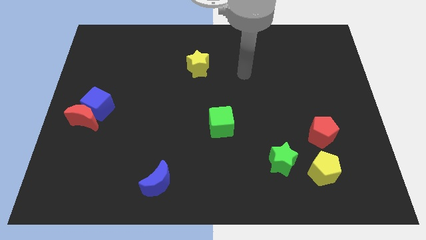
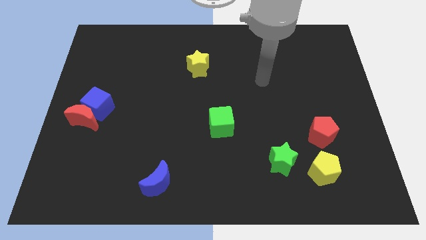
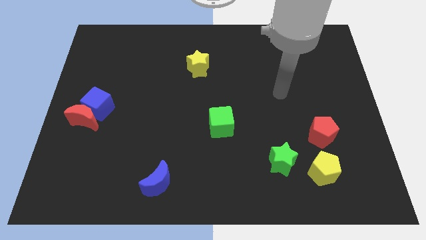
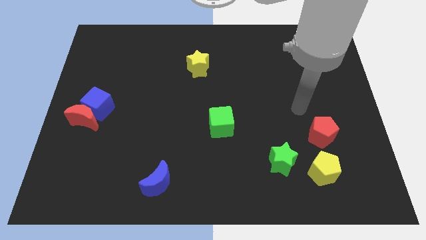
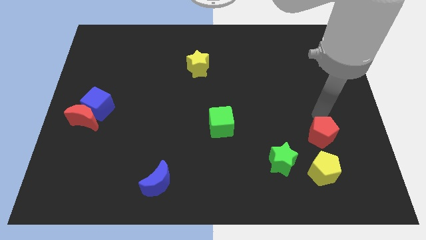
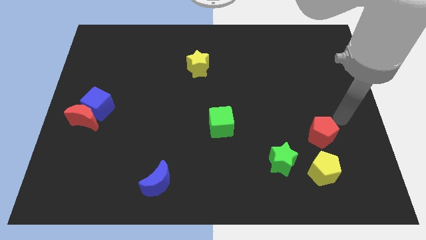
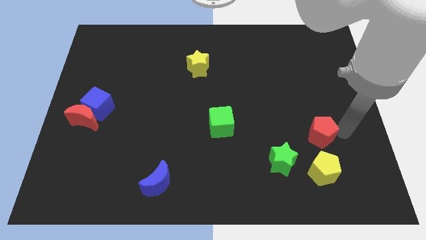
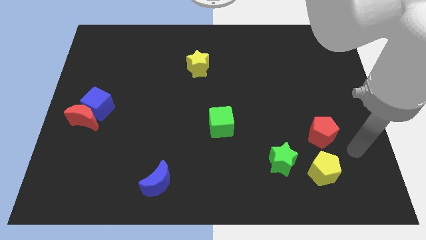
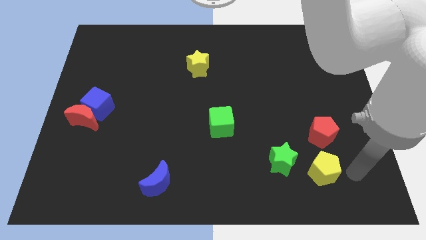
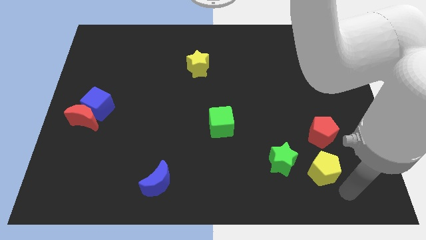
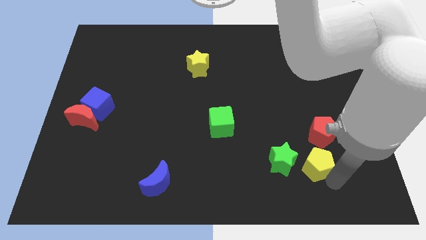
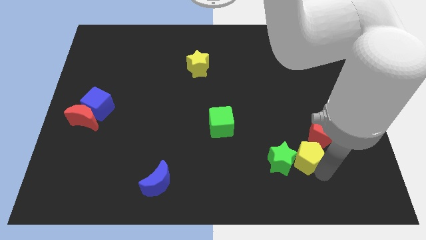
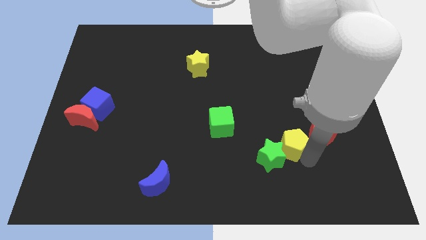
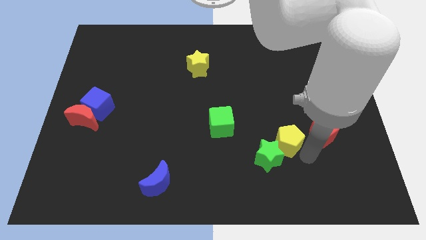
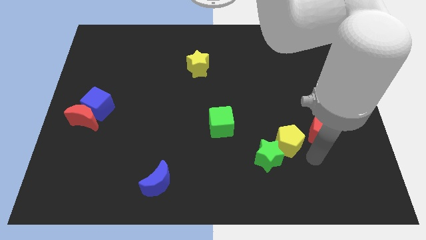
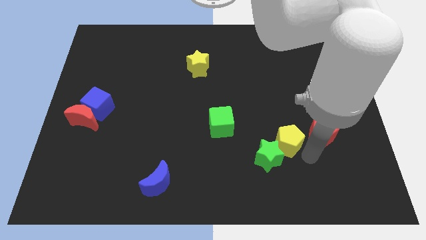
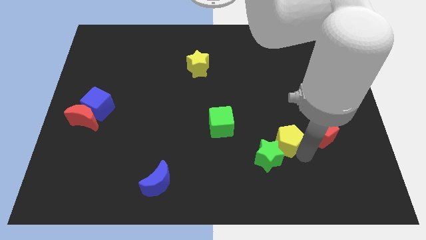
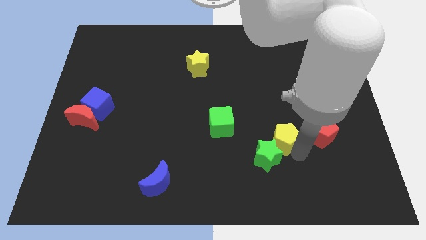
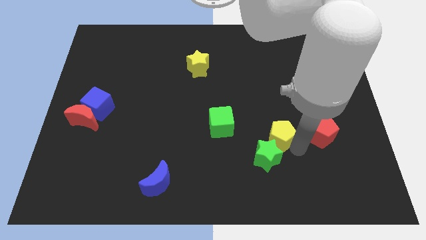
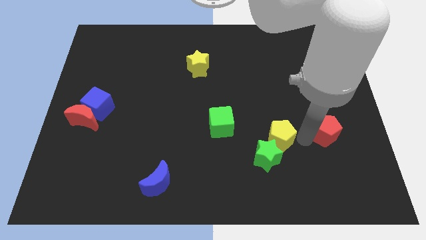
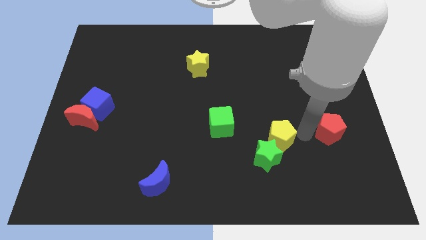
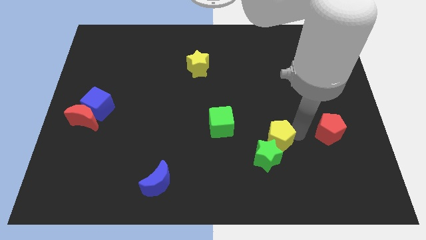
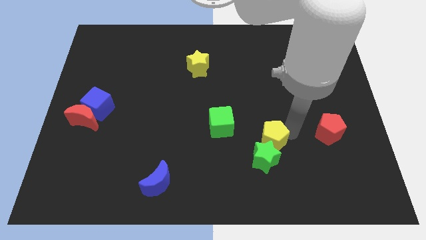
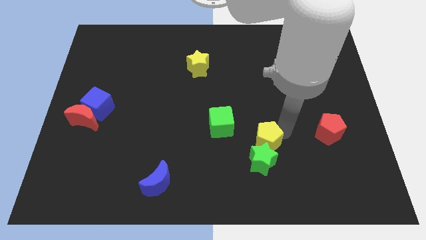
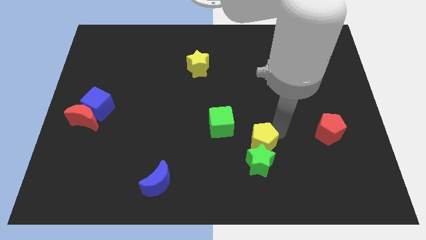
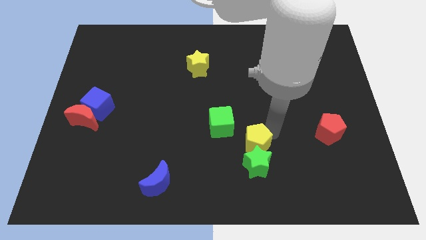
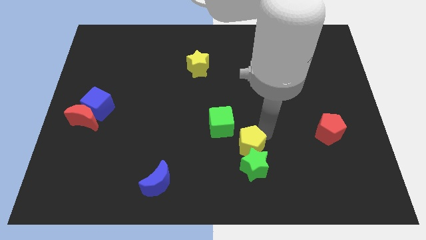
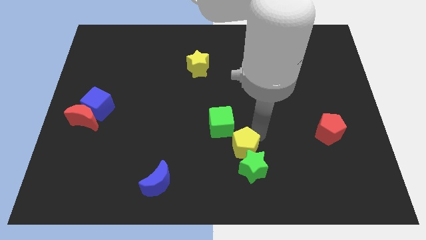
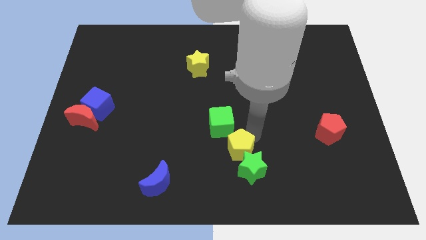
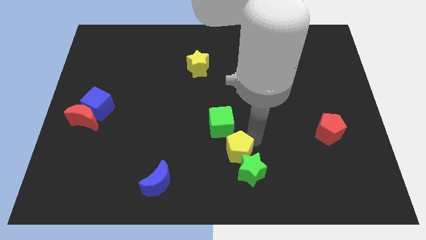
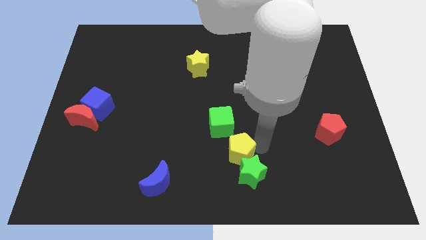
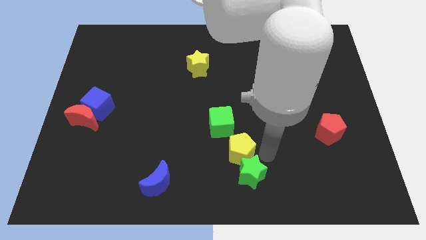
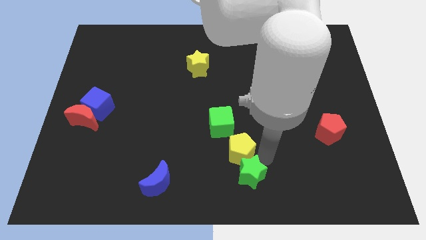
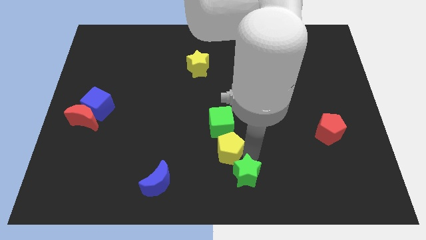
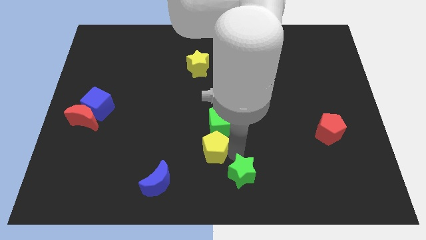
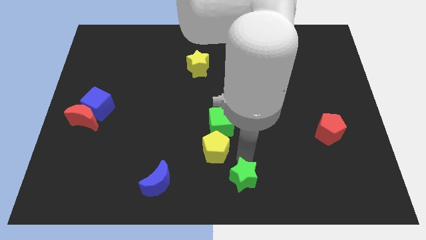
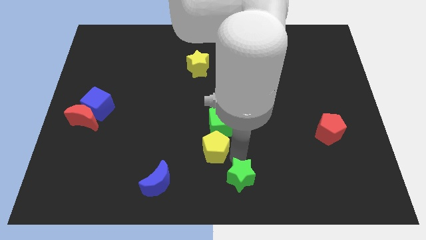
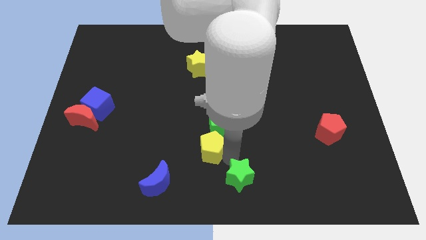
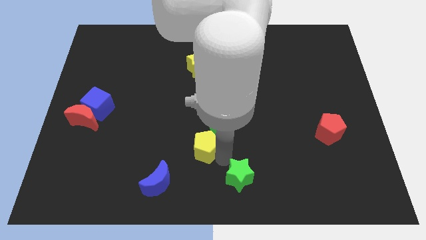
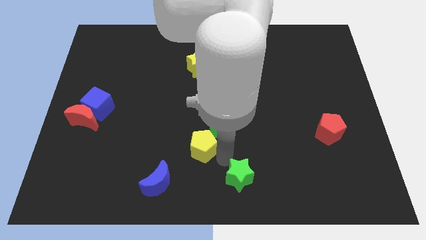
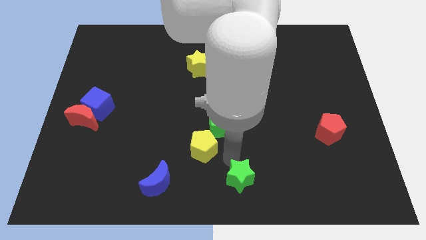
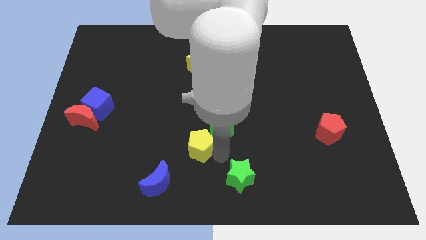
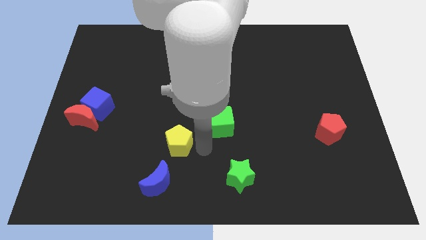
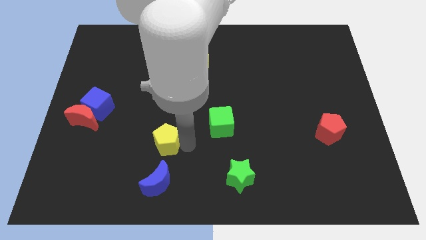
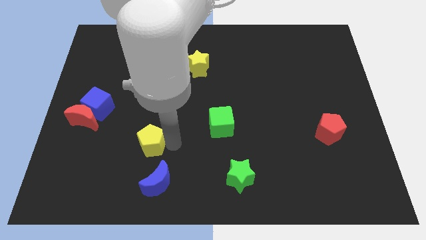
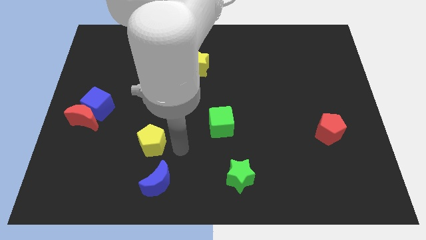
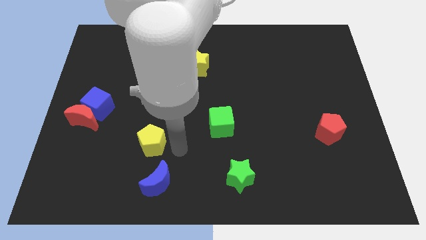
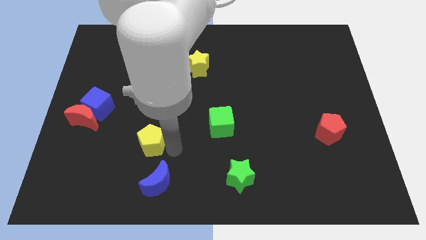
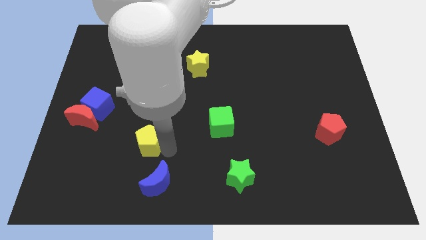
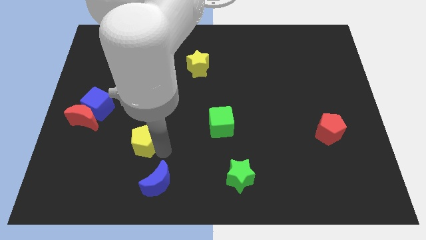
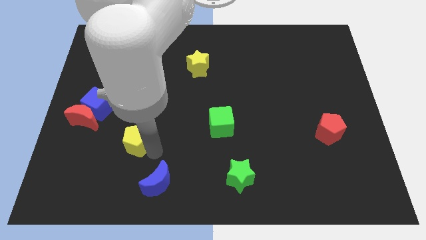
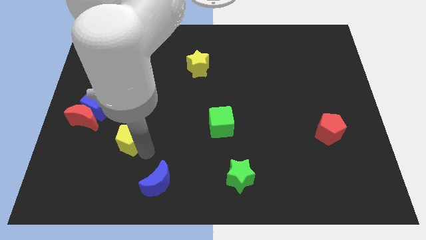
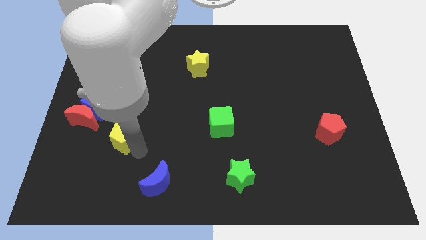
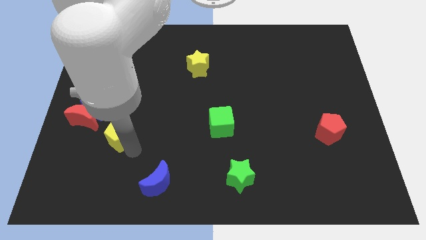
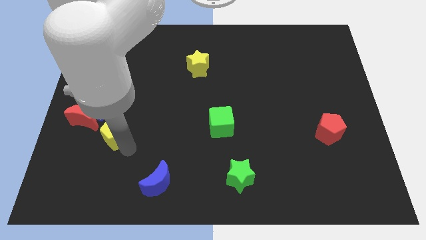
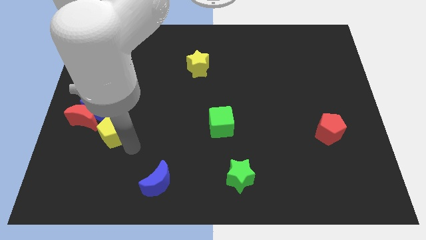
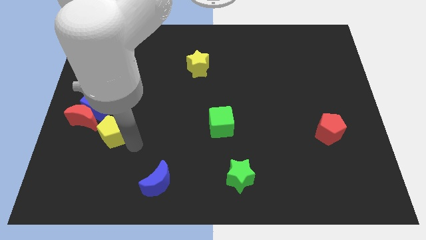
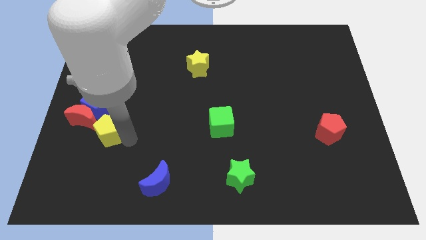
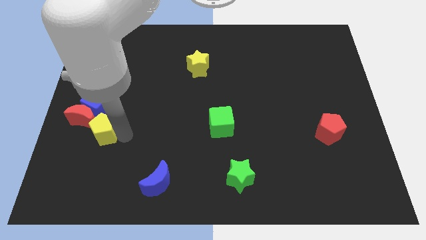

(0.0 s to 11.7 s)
slide the yellow pentagon towards the red moon
